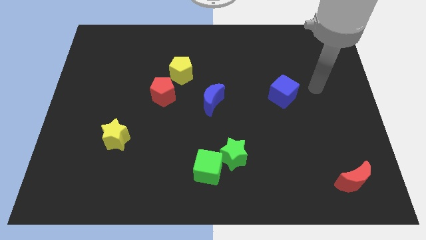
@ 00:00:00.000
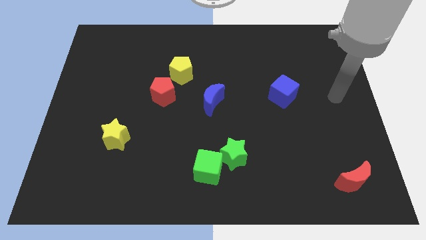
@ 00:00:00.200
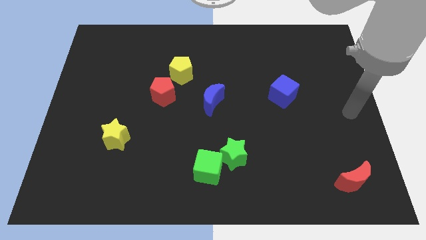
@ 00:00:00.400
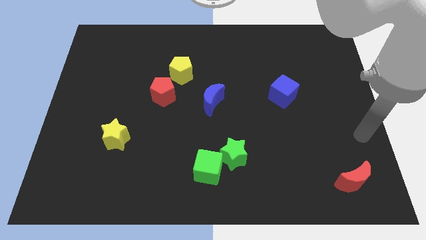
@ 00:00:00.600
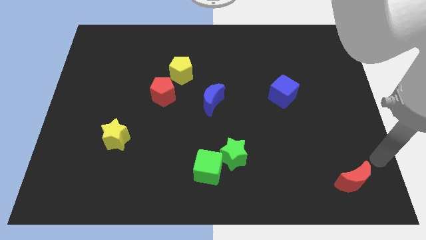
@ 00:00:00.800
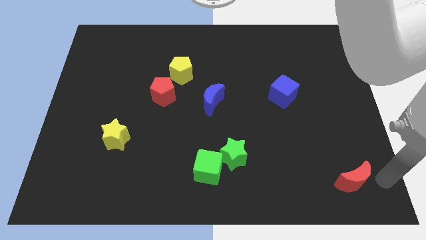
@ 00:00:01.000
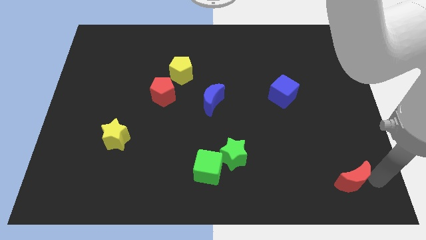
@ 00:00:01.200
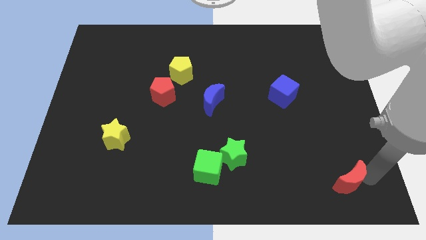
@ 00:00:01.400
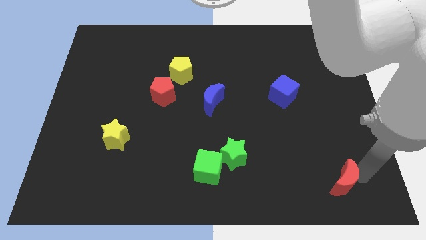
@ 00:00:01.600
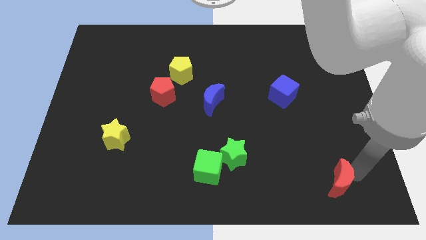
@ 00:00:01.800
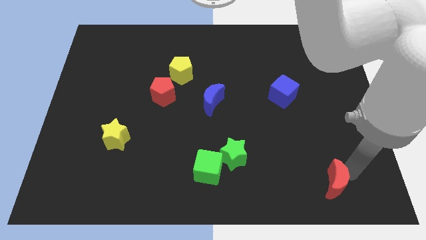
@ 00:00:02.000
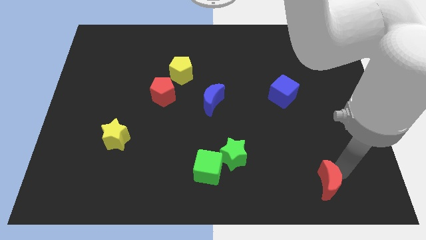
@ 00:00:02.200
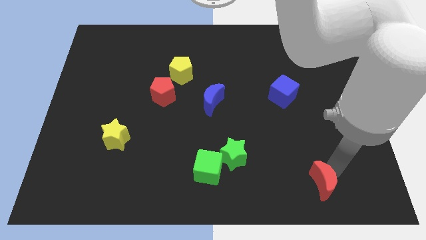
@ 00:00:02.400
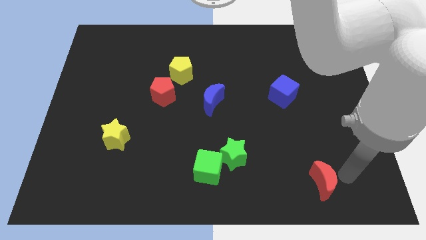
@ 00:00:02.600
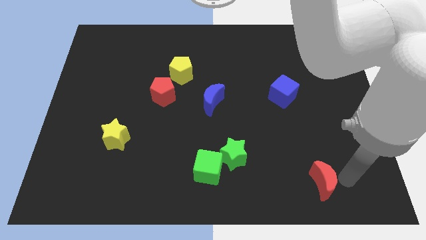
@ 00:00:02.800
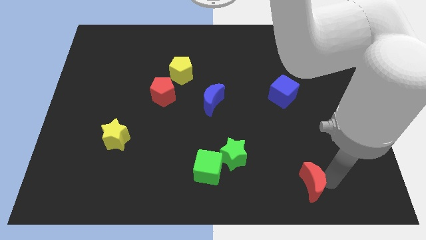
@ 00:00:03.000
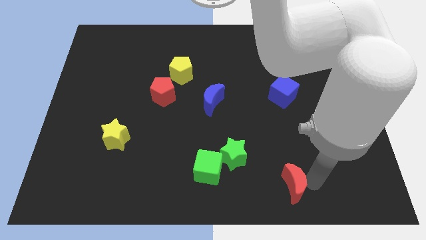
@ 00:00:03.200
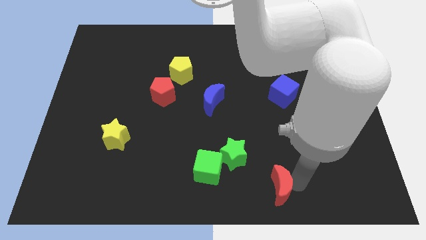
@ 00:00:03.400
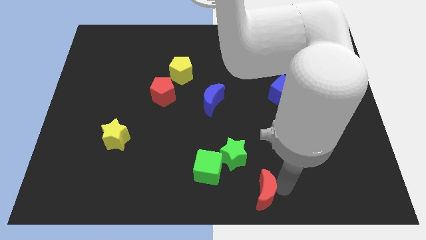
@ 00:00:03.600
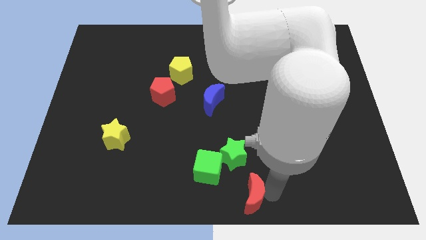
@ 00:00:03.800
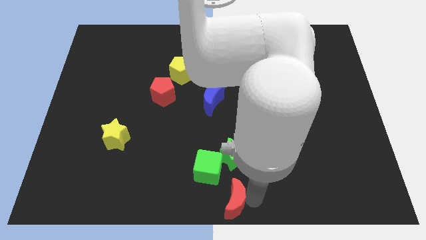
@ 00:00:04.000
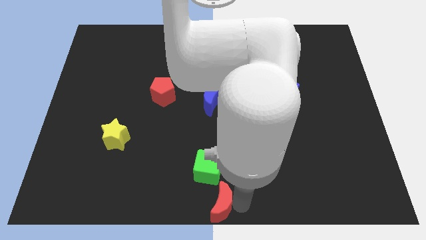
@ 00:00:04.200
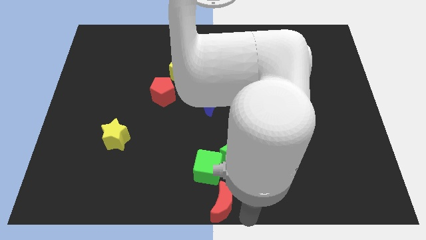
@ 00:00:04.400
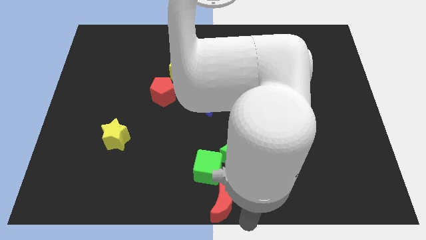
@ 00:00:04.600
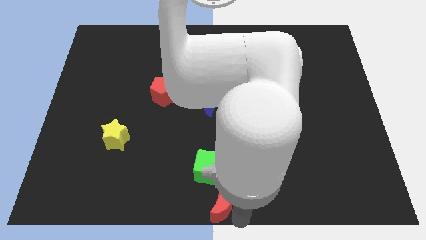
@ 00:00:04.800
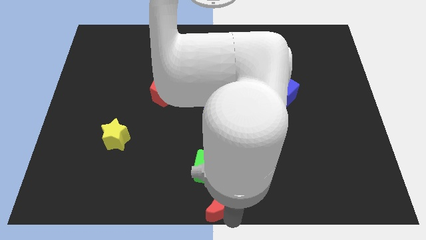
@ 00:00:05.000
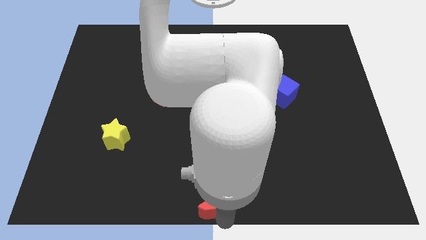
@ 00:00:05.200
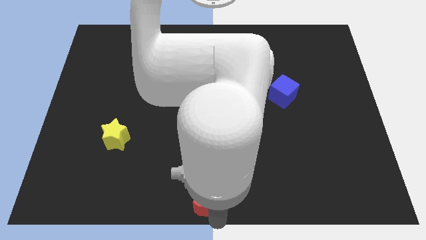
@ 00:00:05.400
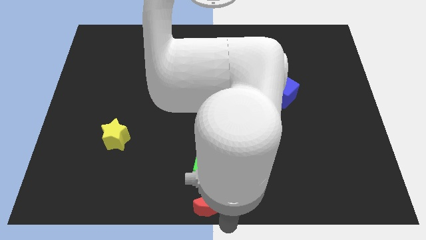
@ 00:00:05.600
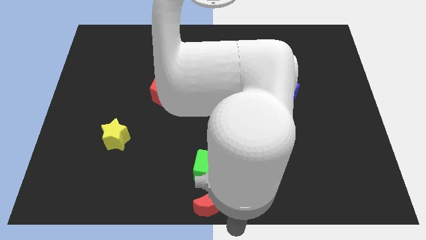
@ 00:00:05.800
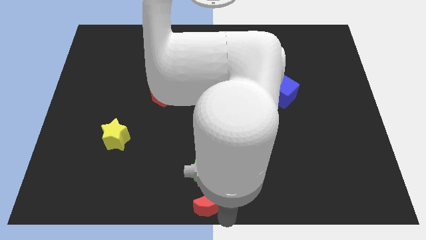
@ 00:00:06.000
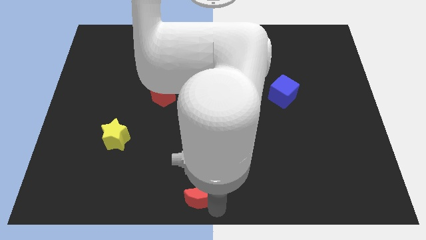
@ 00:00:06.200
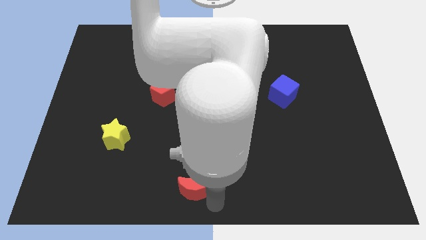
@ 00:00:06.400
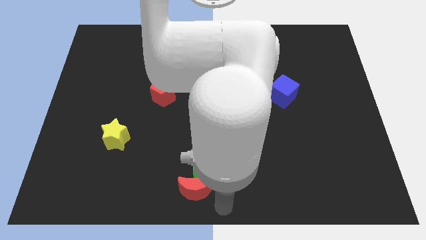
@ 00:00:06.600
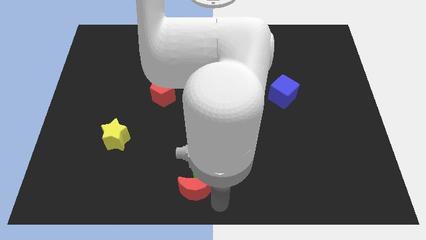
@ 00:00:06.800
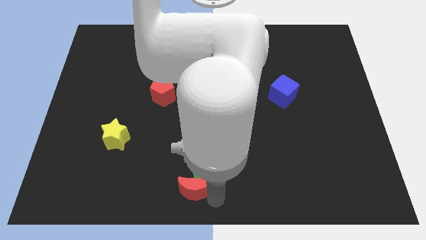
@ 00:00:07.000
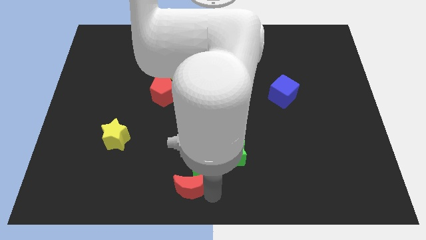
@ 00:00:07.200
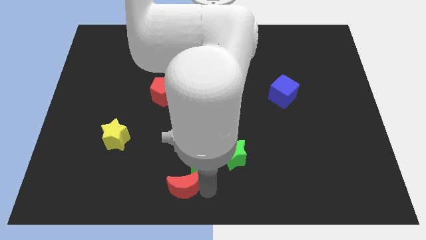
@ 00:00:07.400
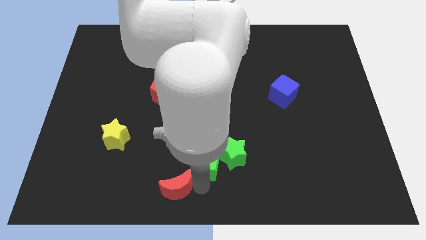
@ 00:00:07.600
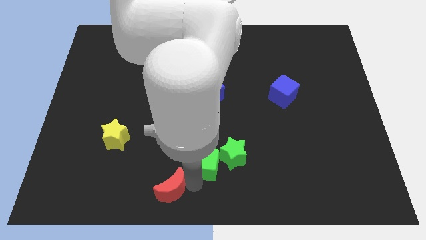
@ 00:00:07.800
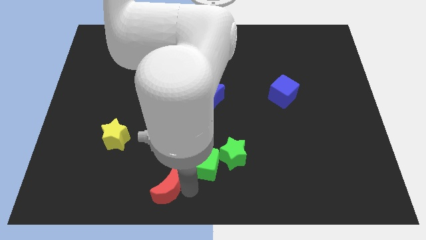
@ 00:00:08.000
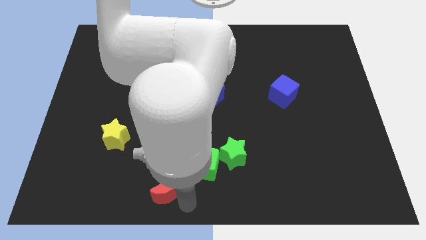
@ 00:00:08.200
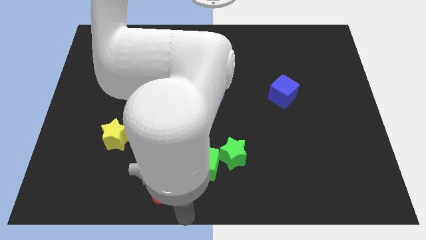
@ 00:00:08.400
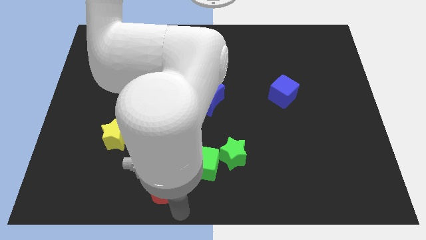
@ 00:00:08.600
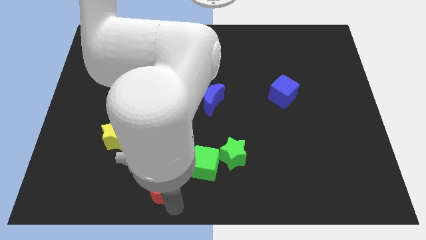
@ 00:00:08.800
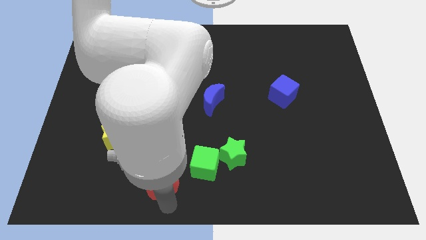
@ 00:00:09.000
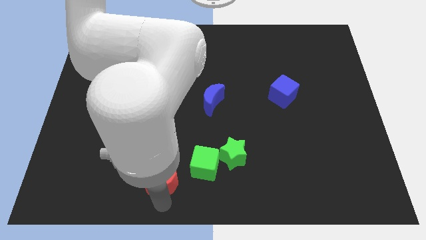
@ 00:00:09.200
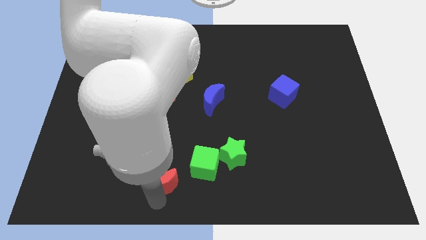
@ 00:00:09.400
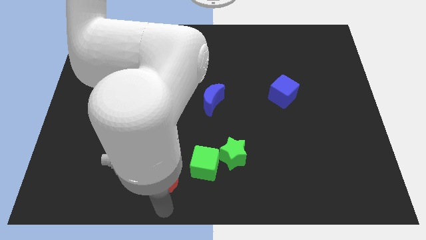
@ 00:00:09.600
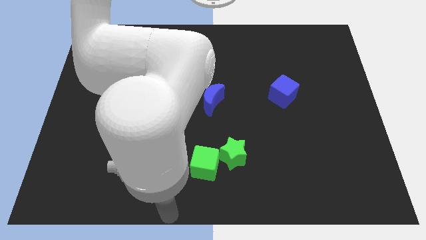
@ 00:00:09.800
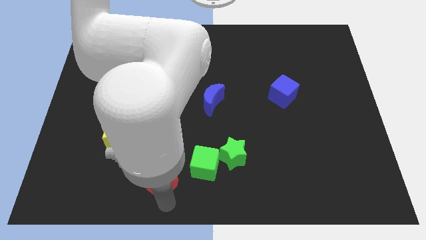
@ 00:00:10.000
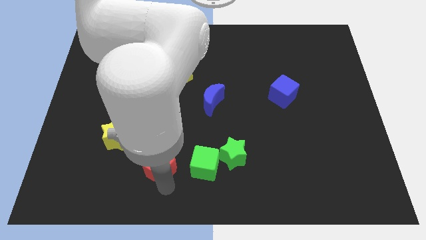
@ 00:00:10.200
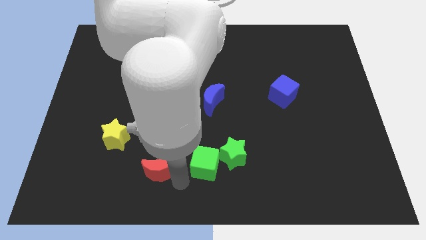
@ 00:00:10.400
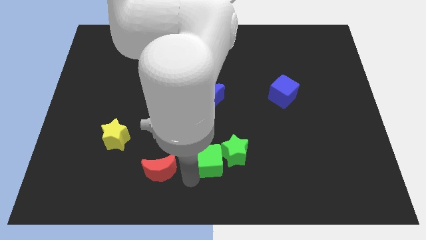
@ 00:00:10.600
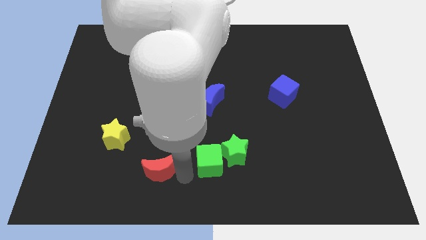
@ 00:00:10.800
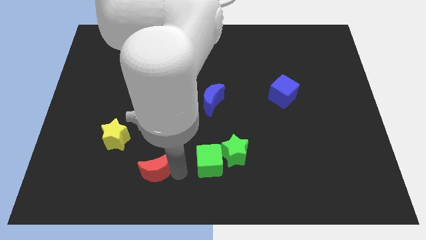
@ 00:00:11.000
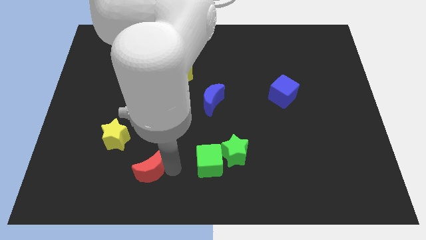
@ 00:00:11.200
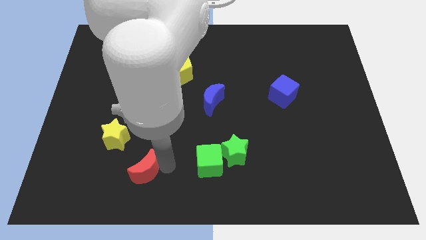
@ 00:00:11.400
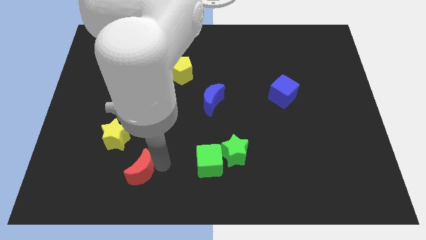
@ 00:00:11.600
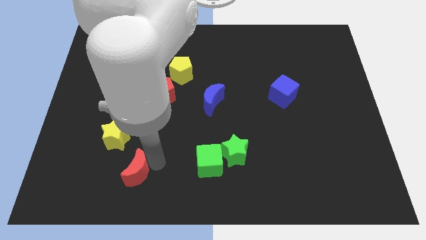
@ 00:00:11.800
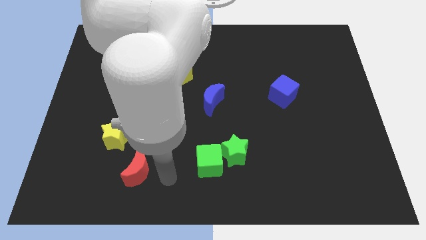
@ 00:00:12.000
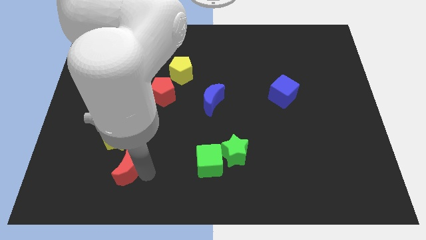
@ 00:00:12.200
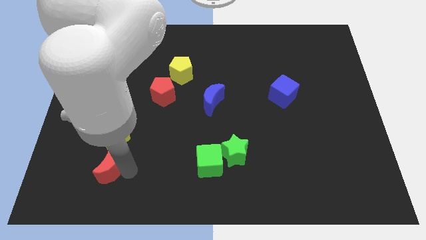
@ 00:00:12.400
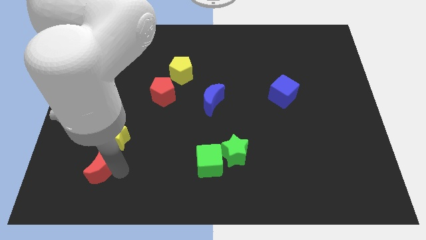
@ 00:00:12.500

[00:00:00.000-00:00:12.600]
move the red moon diagonally down and to the left of the yellow star

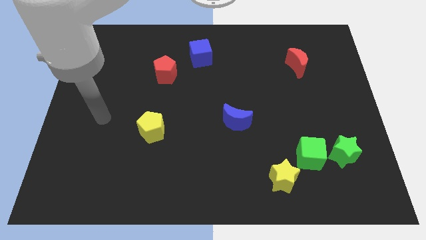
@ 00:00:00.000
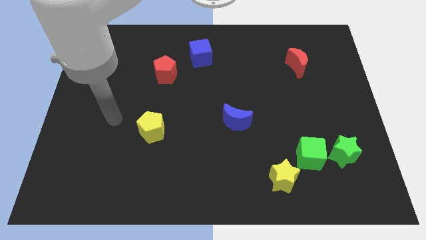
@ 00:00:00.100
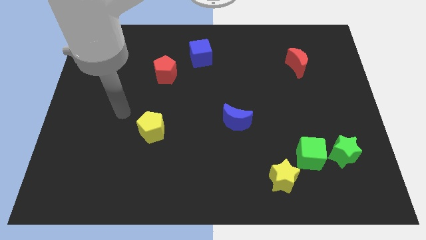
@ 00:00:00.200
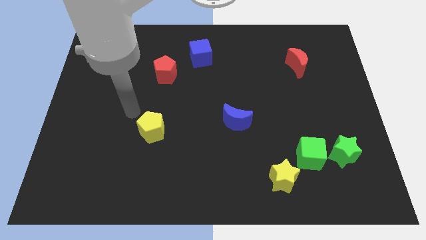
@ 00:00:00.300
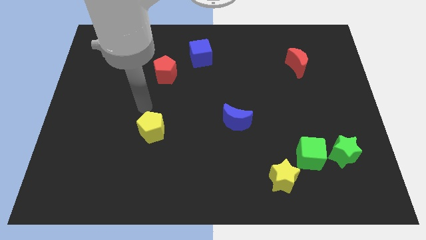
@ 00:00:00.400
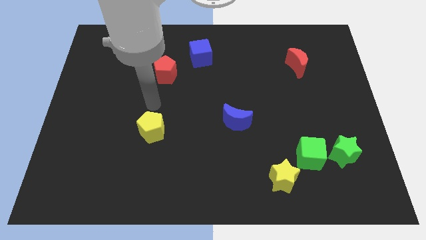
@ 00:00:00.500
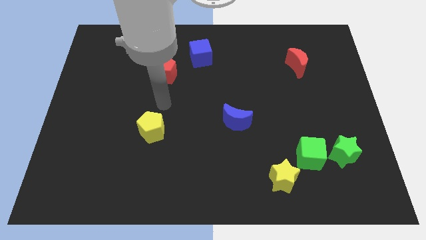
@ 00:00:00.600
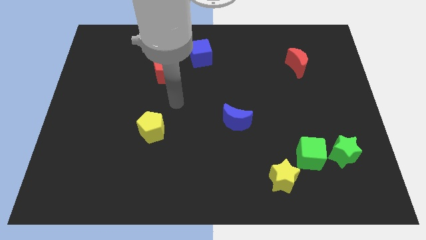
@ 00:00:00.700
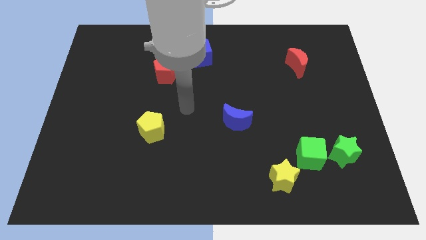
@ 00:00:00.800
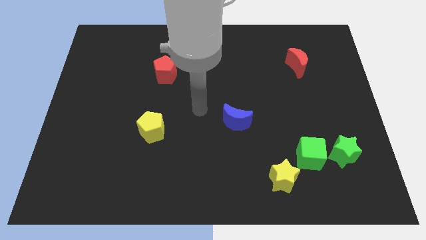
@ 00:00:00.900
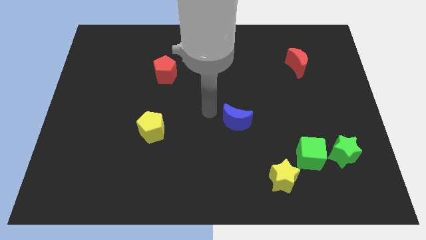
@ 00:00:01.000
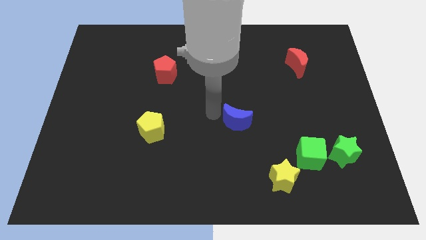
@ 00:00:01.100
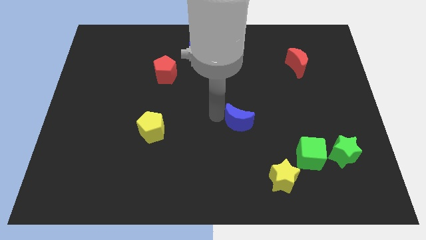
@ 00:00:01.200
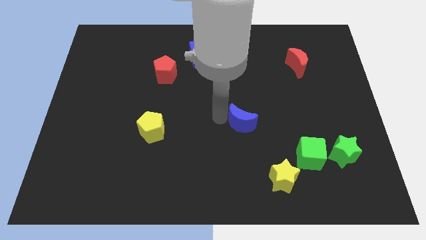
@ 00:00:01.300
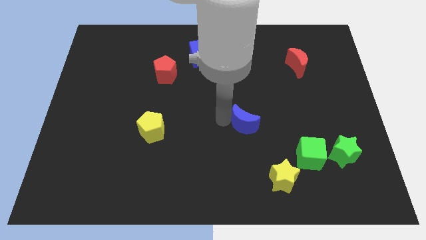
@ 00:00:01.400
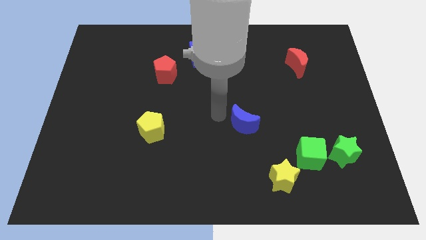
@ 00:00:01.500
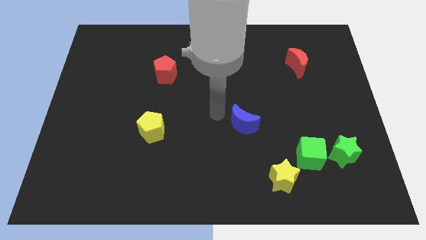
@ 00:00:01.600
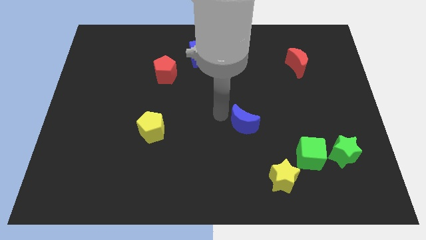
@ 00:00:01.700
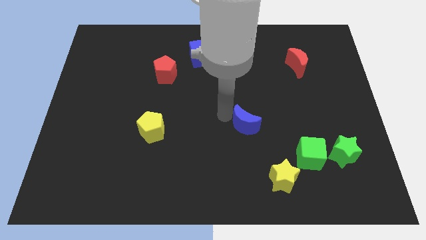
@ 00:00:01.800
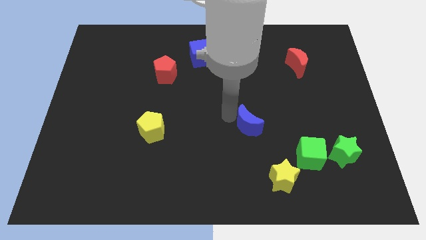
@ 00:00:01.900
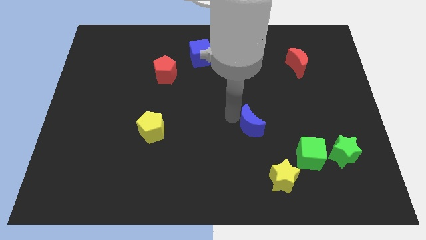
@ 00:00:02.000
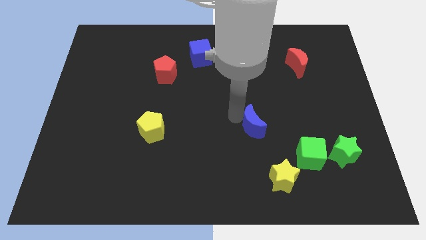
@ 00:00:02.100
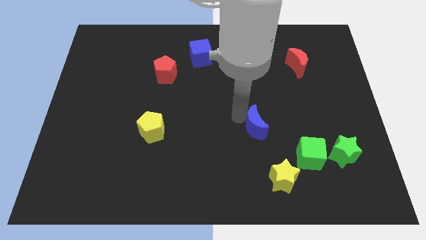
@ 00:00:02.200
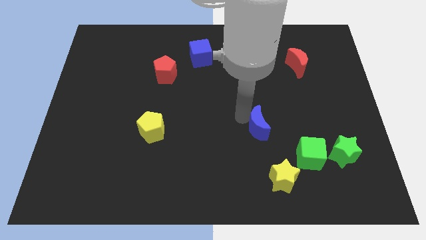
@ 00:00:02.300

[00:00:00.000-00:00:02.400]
push the blue moon to the top side of the yellow star
